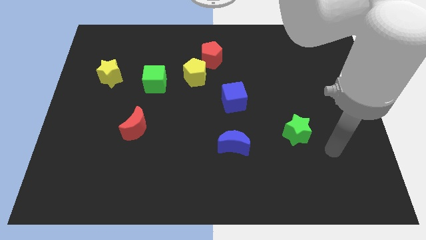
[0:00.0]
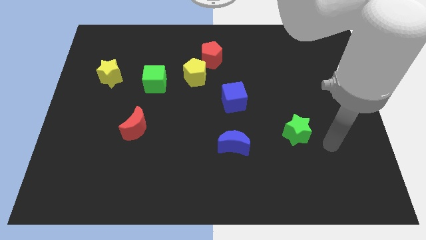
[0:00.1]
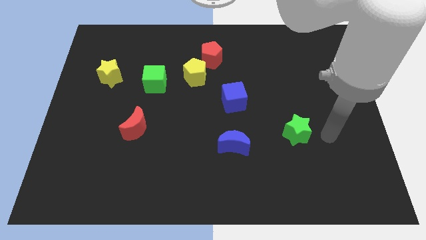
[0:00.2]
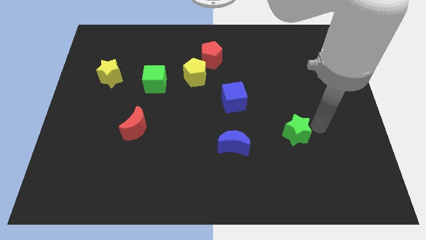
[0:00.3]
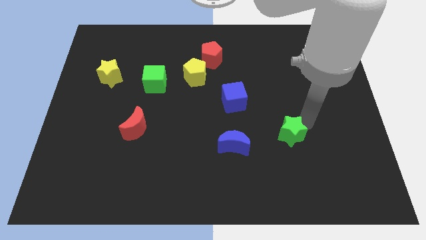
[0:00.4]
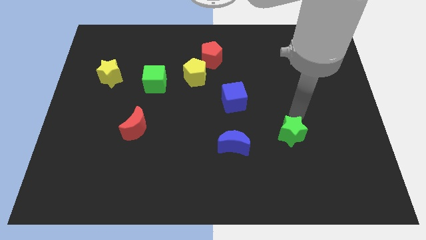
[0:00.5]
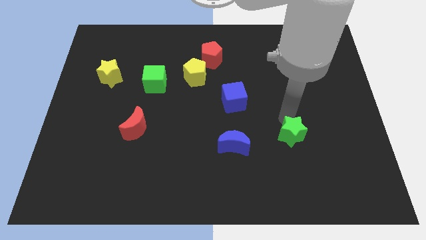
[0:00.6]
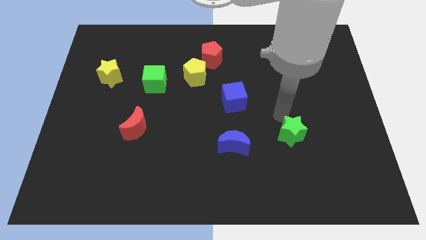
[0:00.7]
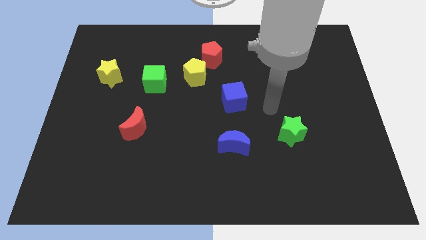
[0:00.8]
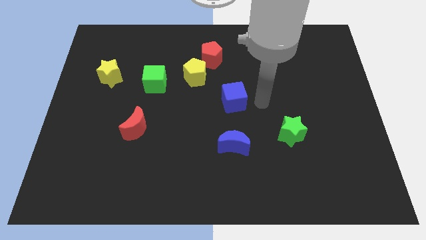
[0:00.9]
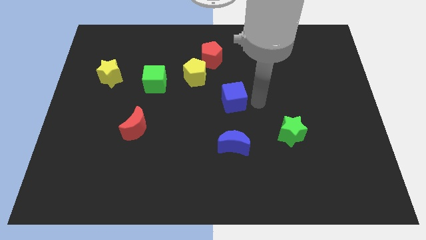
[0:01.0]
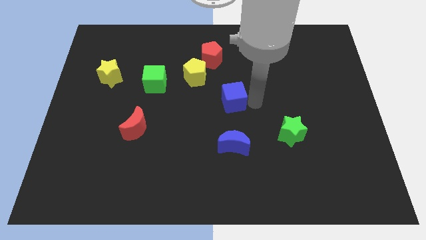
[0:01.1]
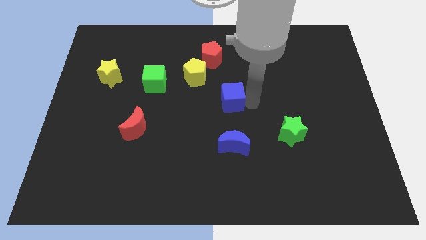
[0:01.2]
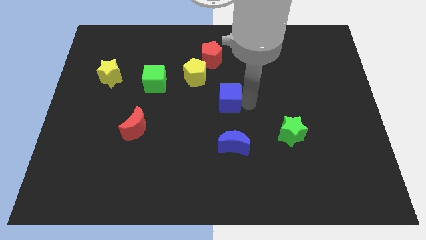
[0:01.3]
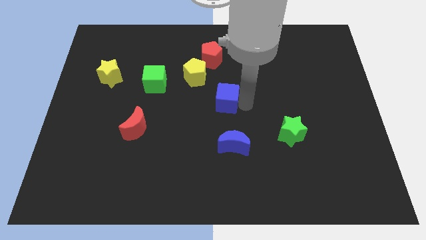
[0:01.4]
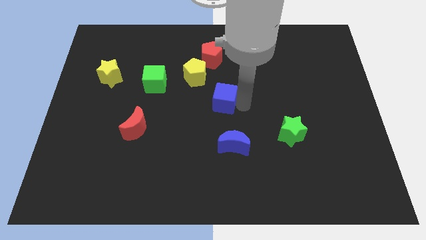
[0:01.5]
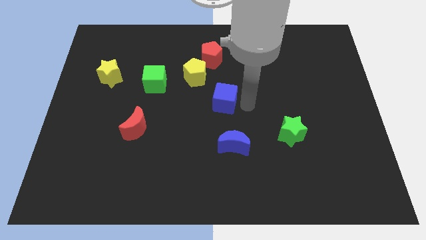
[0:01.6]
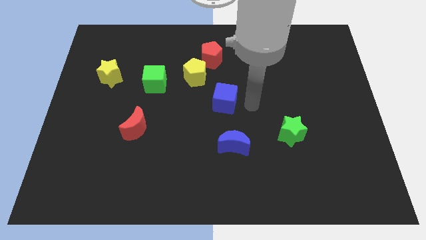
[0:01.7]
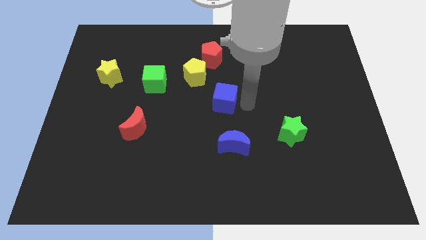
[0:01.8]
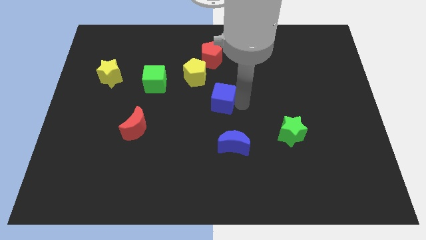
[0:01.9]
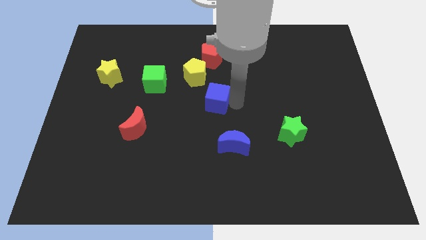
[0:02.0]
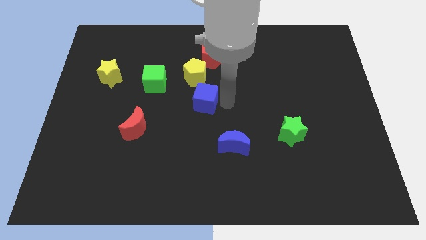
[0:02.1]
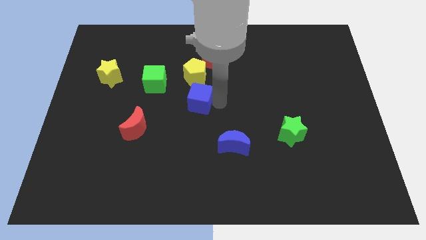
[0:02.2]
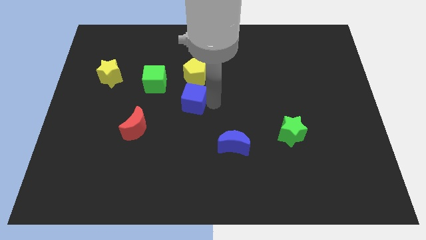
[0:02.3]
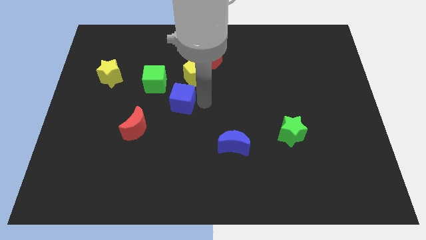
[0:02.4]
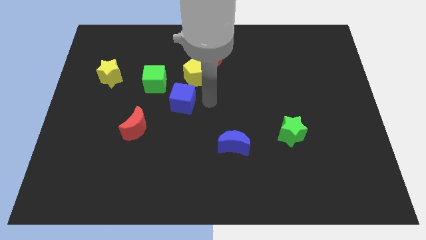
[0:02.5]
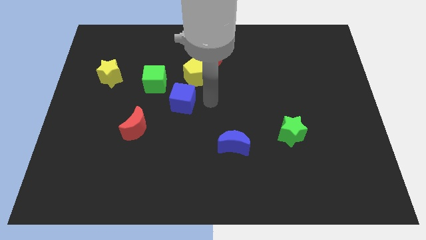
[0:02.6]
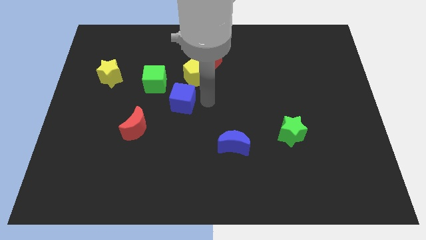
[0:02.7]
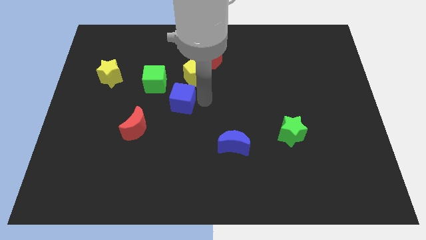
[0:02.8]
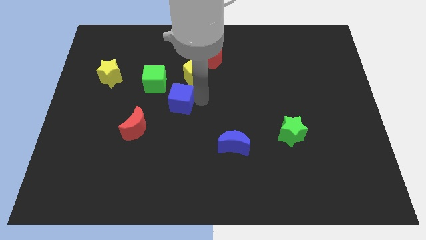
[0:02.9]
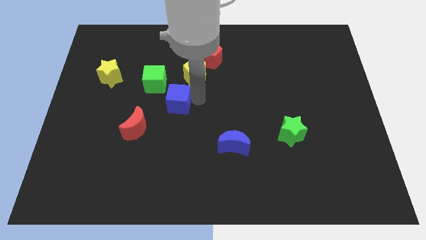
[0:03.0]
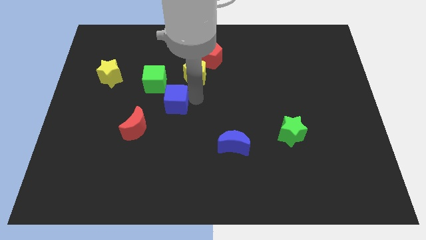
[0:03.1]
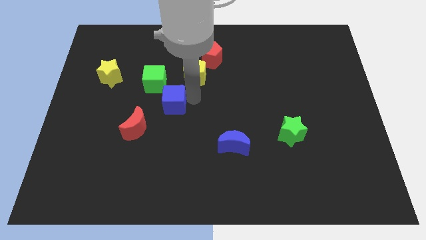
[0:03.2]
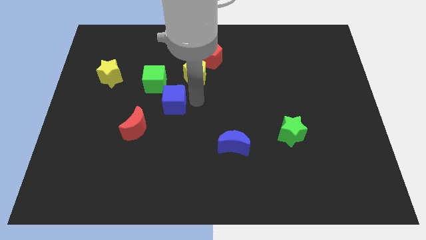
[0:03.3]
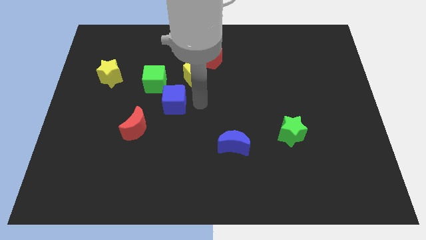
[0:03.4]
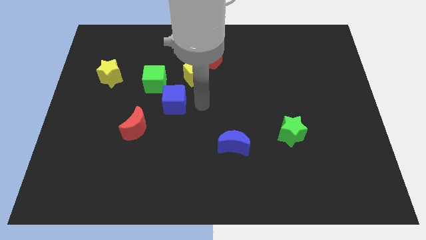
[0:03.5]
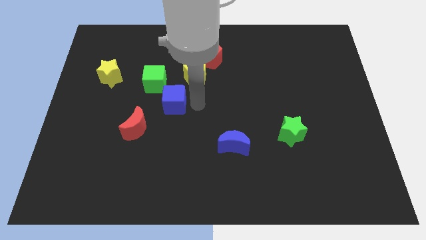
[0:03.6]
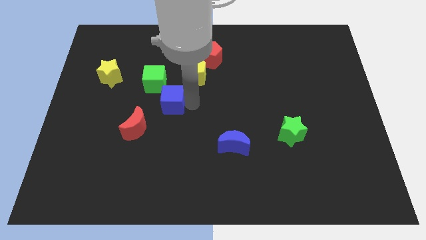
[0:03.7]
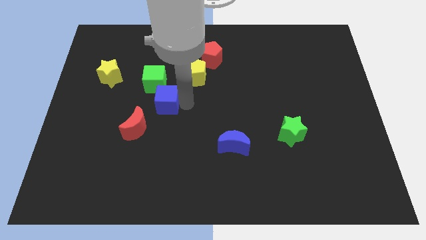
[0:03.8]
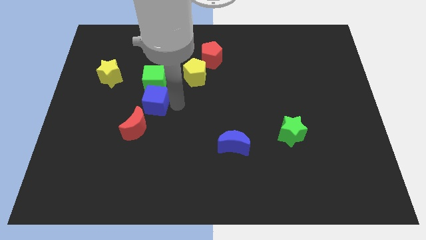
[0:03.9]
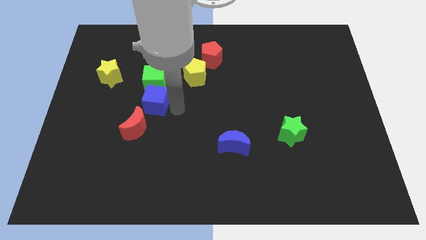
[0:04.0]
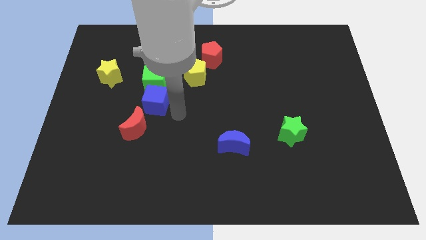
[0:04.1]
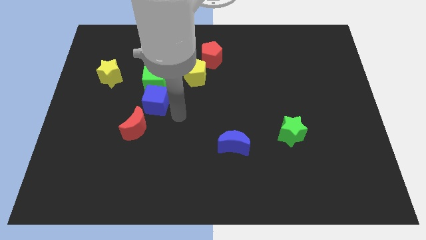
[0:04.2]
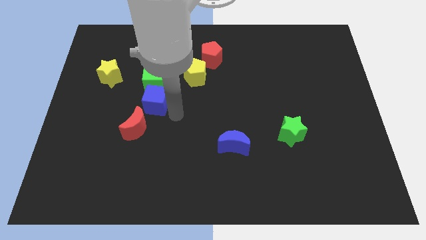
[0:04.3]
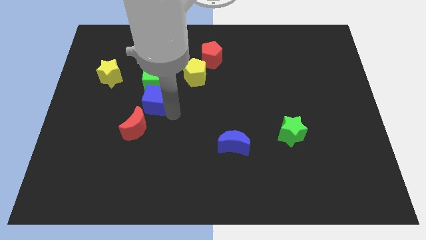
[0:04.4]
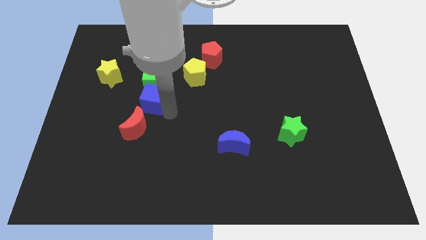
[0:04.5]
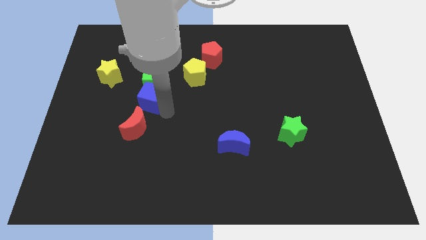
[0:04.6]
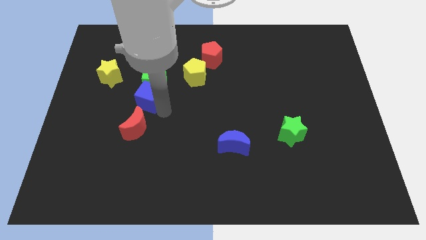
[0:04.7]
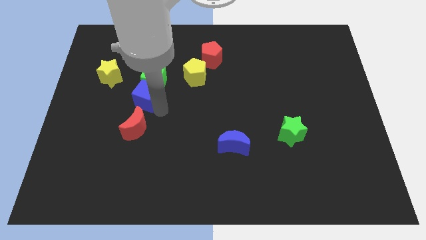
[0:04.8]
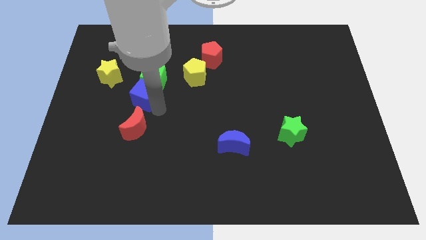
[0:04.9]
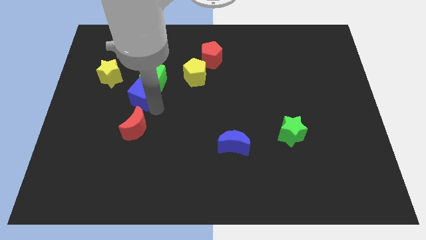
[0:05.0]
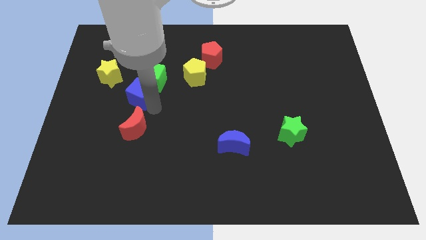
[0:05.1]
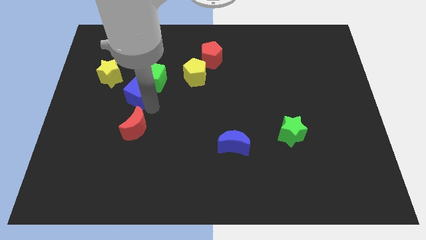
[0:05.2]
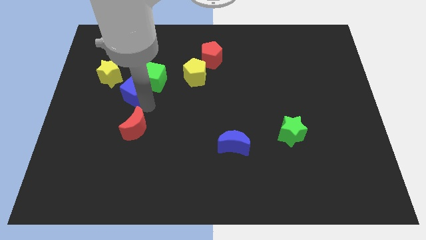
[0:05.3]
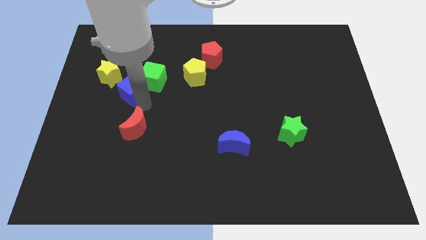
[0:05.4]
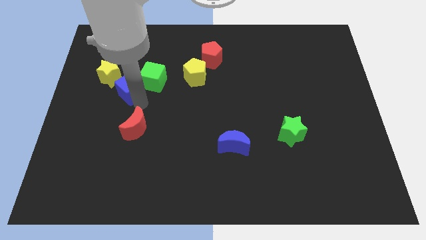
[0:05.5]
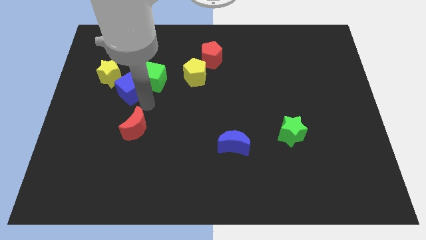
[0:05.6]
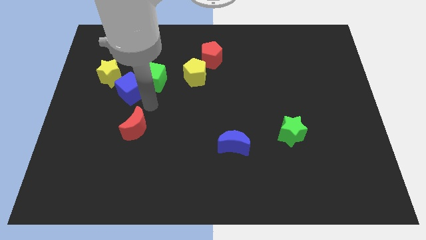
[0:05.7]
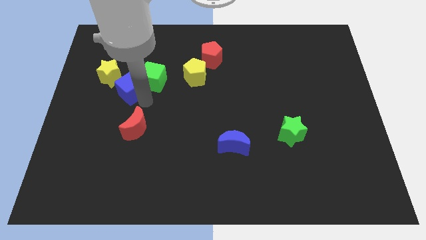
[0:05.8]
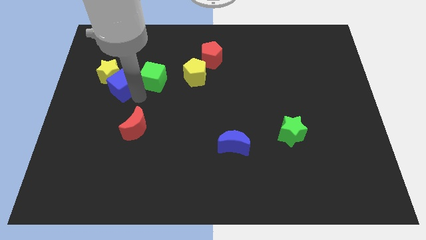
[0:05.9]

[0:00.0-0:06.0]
move the blue cube to the yellow star
